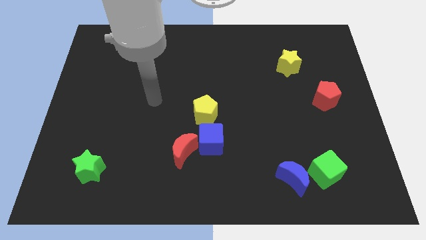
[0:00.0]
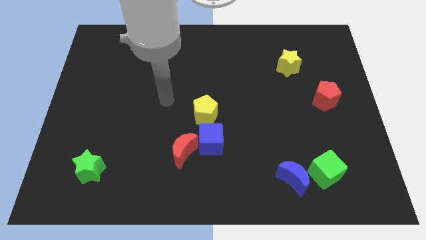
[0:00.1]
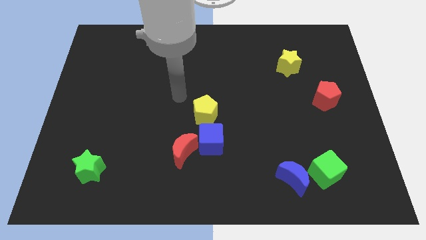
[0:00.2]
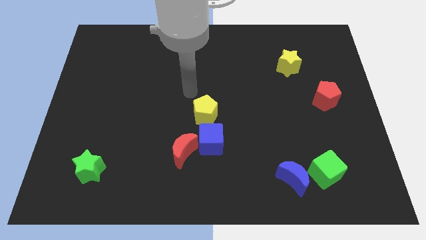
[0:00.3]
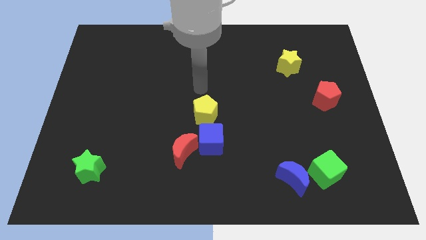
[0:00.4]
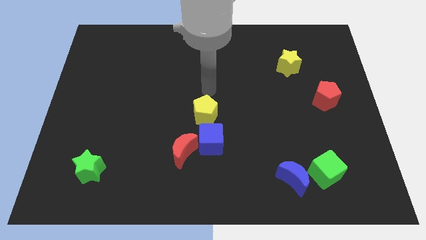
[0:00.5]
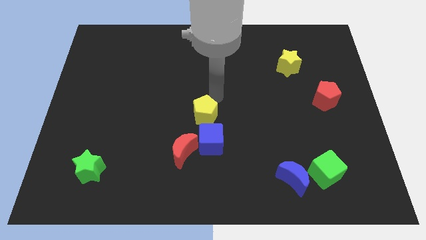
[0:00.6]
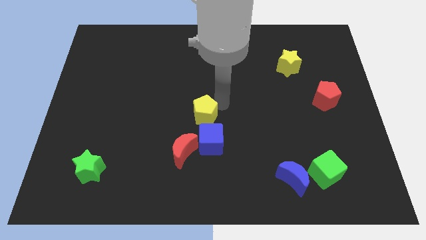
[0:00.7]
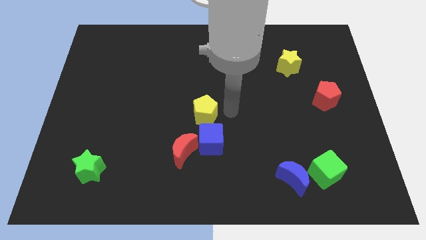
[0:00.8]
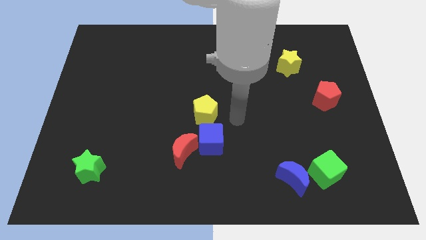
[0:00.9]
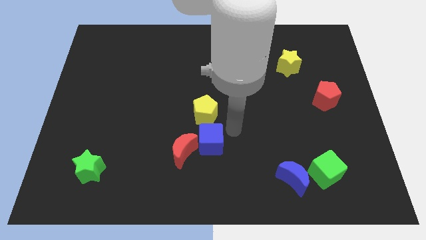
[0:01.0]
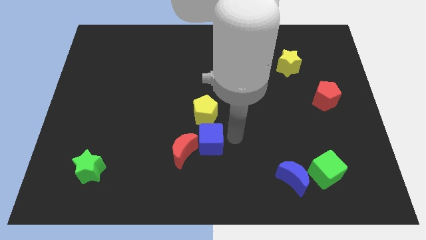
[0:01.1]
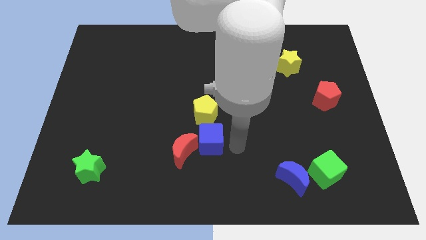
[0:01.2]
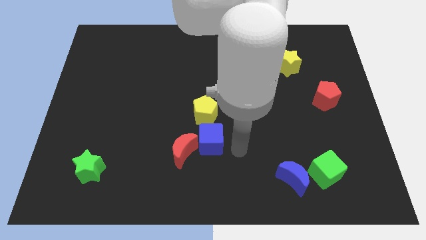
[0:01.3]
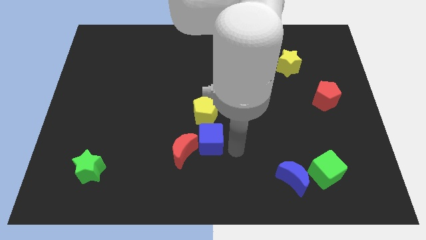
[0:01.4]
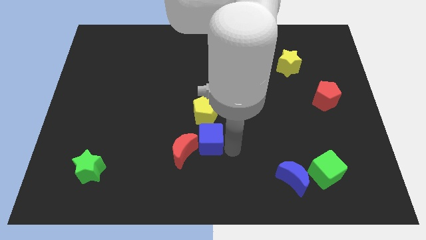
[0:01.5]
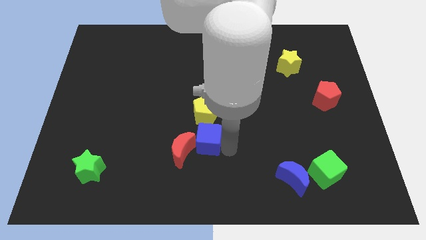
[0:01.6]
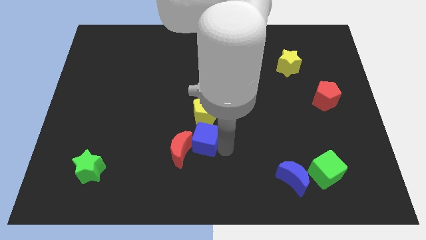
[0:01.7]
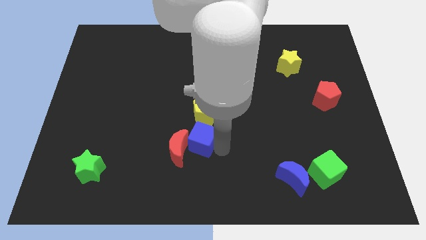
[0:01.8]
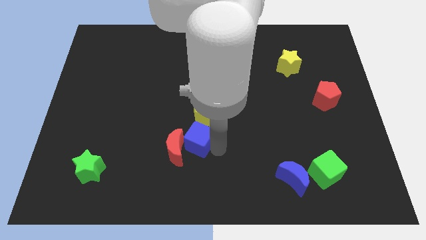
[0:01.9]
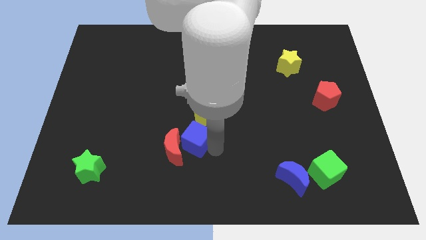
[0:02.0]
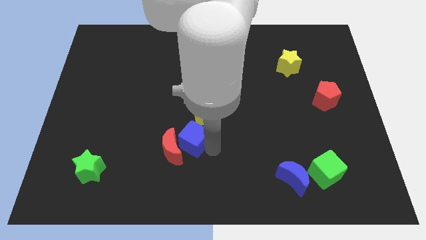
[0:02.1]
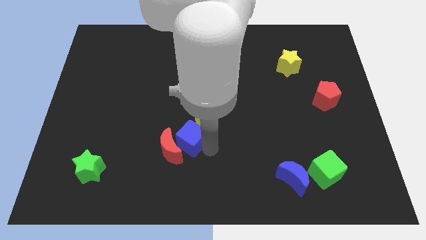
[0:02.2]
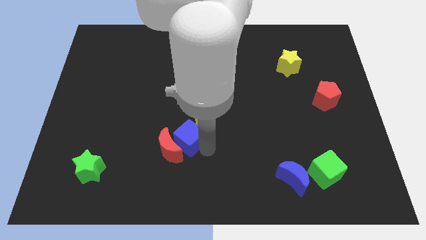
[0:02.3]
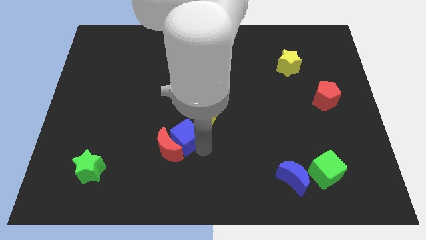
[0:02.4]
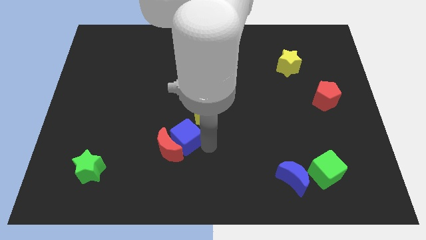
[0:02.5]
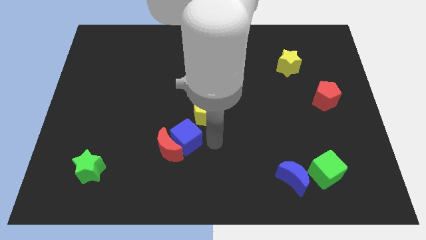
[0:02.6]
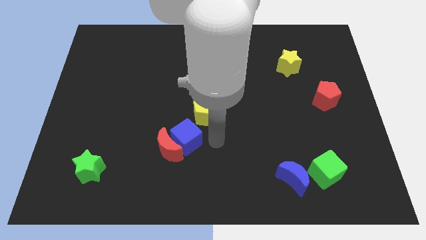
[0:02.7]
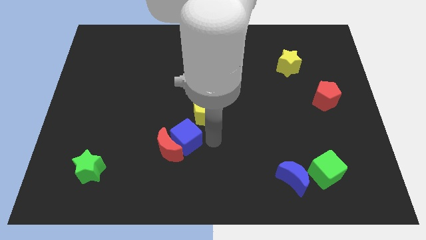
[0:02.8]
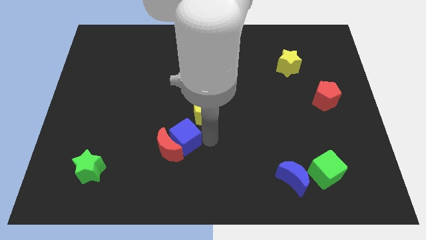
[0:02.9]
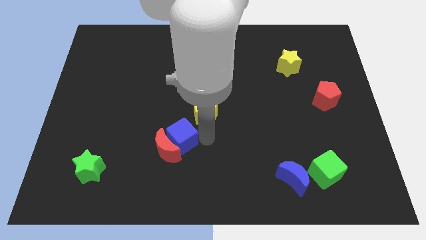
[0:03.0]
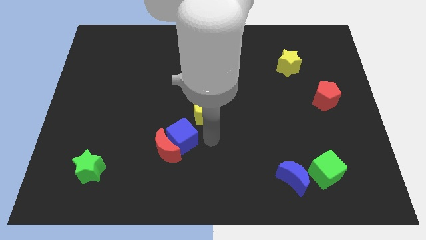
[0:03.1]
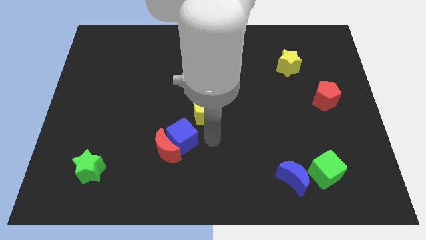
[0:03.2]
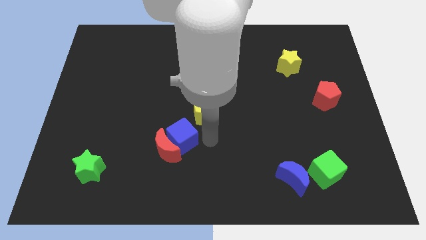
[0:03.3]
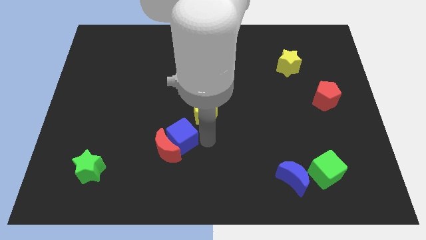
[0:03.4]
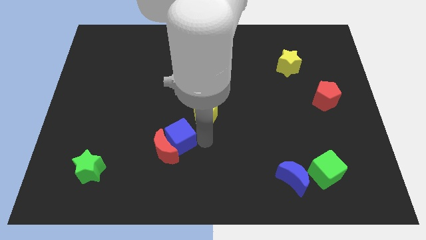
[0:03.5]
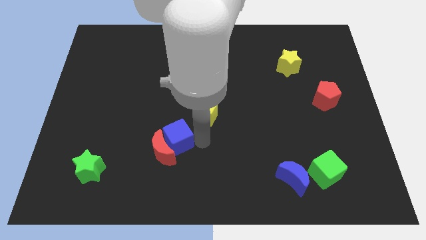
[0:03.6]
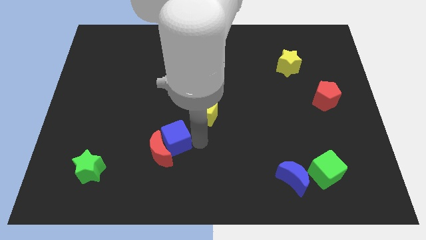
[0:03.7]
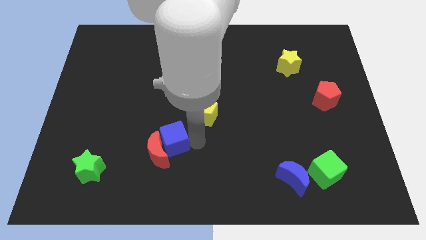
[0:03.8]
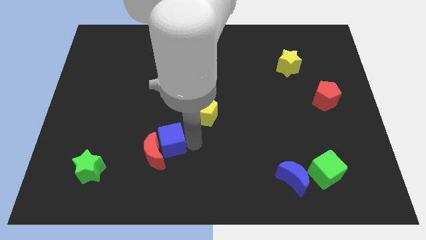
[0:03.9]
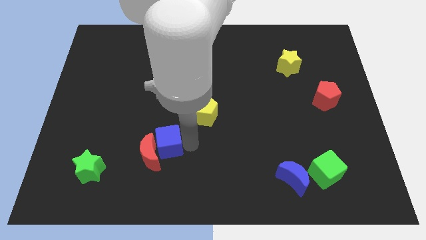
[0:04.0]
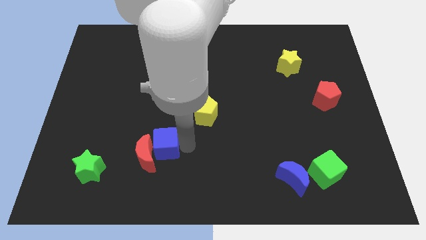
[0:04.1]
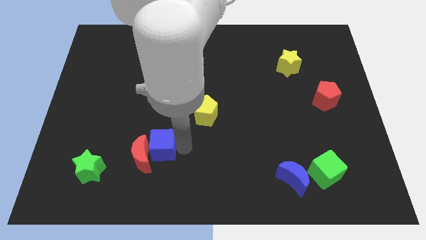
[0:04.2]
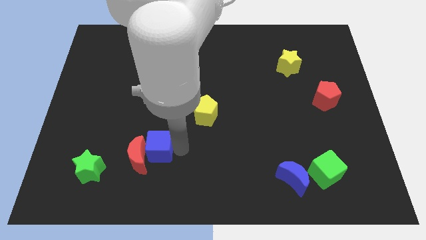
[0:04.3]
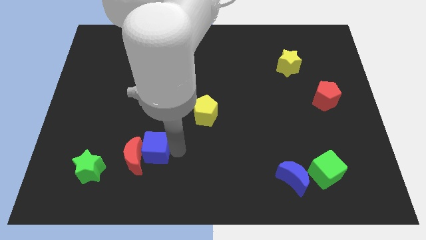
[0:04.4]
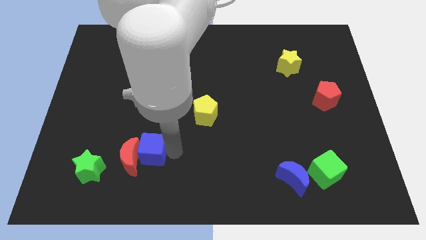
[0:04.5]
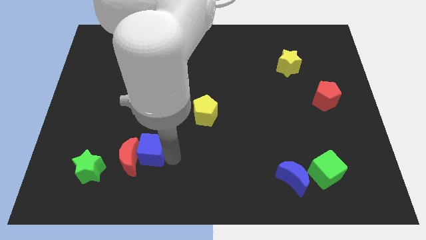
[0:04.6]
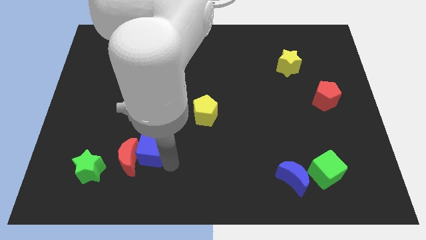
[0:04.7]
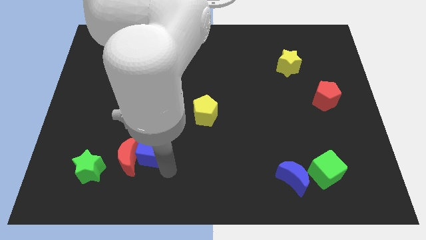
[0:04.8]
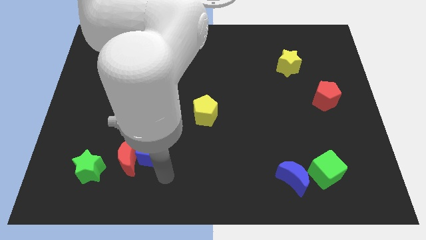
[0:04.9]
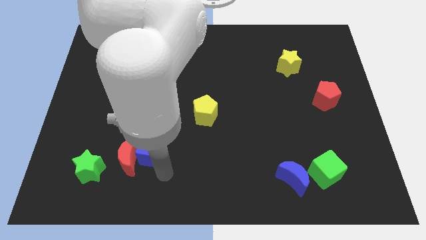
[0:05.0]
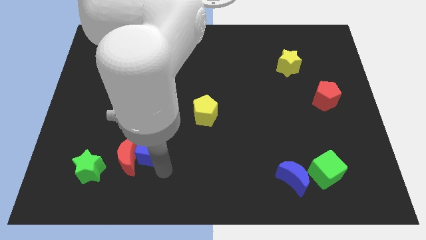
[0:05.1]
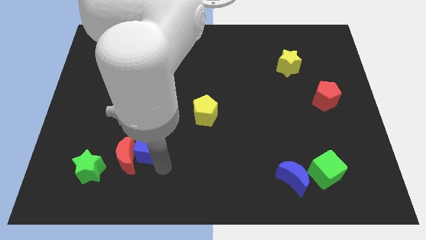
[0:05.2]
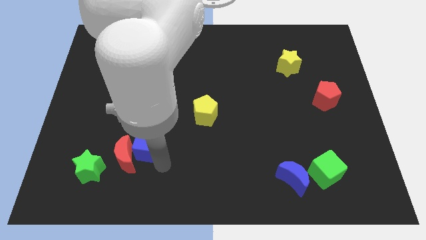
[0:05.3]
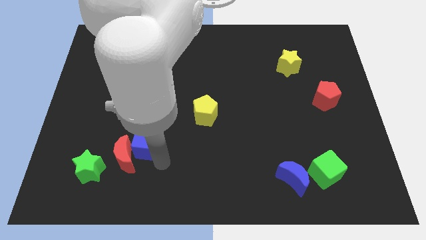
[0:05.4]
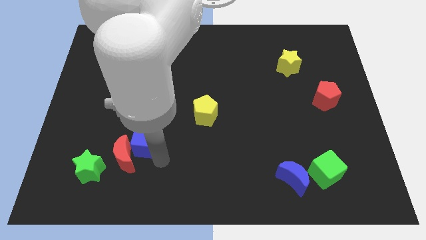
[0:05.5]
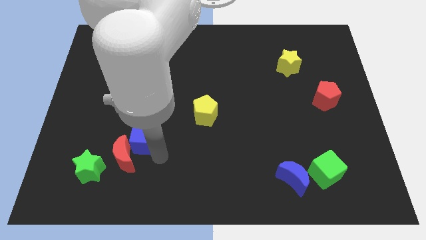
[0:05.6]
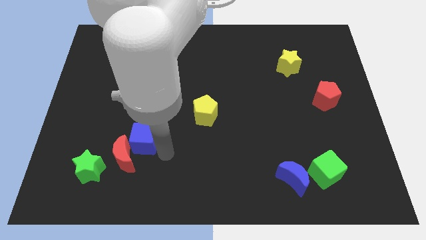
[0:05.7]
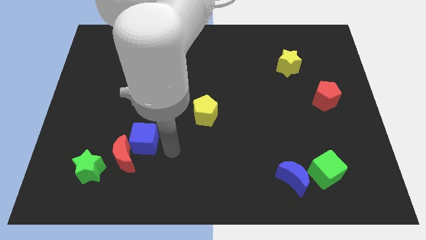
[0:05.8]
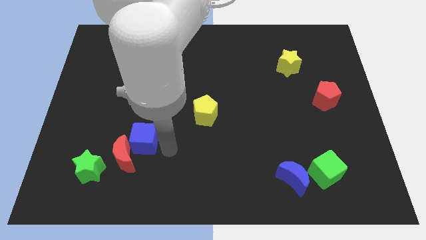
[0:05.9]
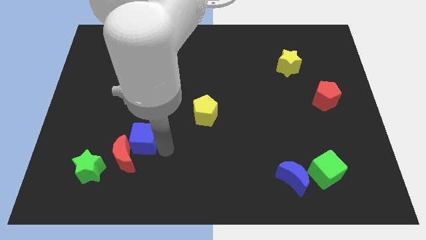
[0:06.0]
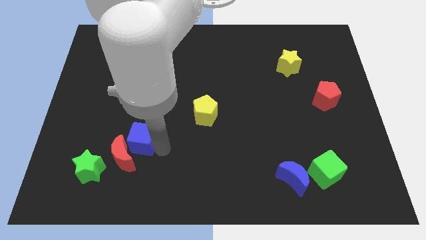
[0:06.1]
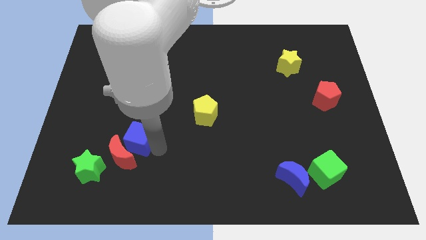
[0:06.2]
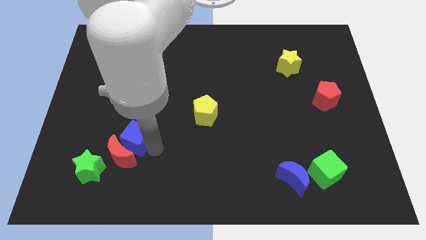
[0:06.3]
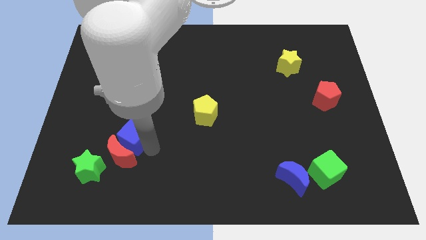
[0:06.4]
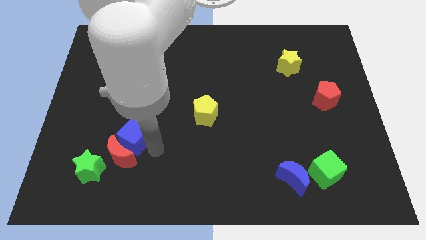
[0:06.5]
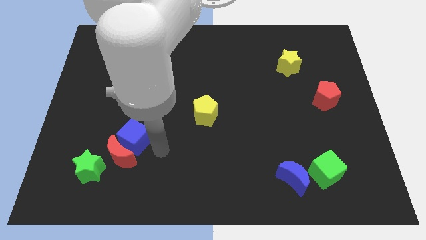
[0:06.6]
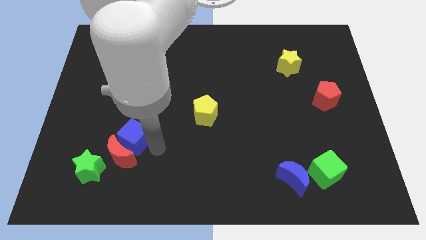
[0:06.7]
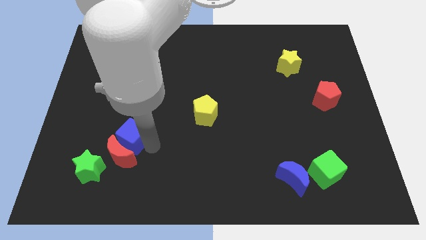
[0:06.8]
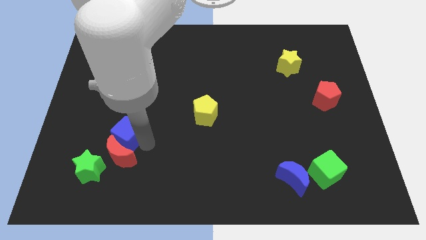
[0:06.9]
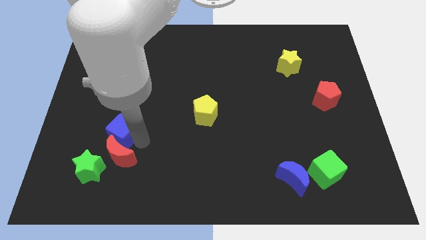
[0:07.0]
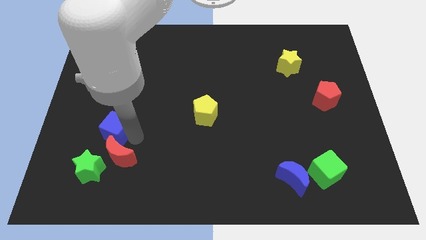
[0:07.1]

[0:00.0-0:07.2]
slide the blue cube to the top side of the green star
